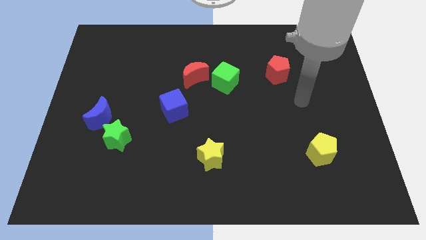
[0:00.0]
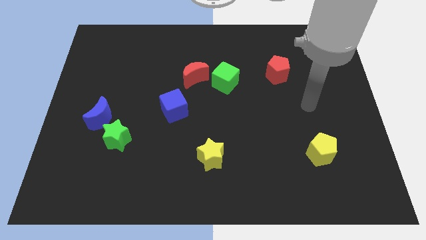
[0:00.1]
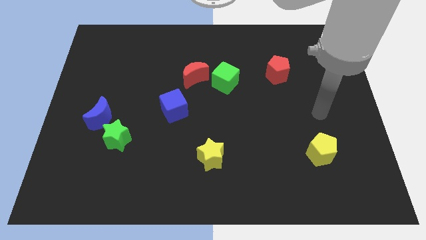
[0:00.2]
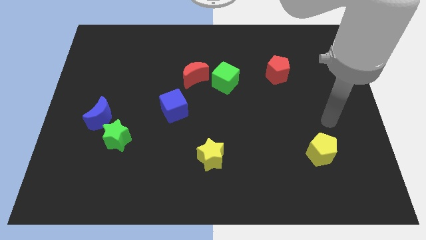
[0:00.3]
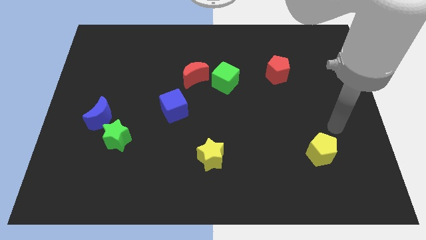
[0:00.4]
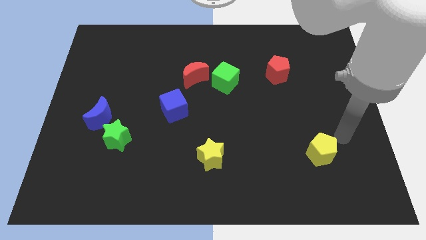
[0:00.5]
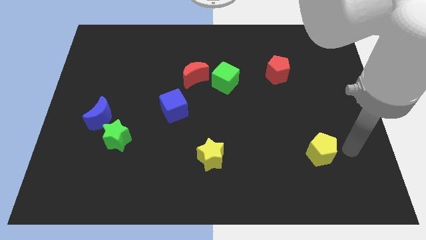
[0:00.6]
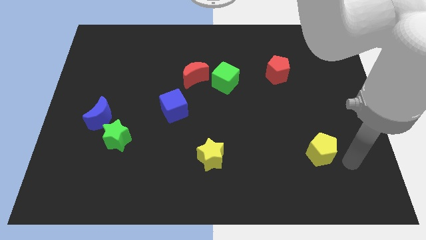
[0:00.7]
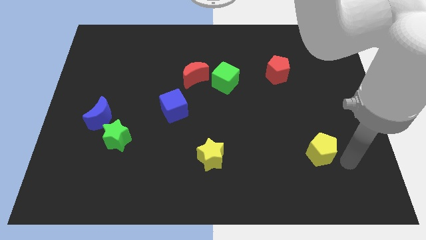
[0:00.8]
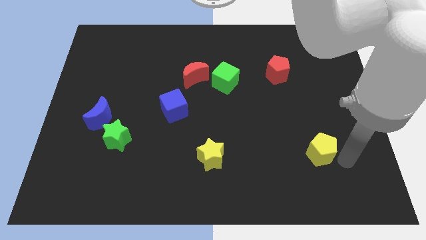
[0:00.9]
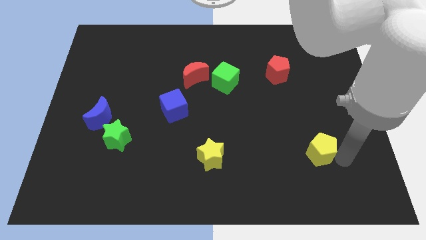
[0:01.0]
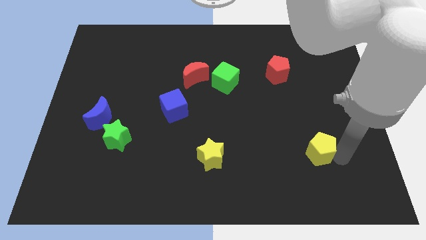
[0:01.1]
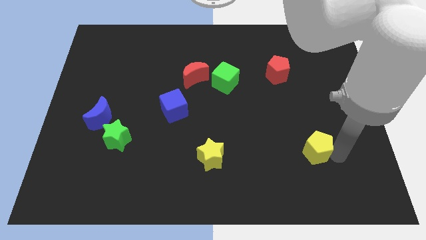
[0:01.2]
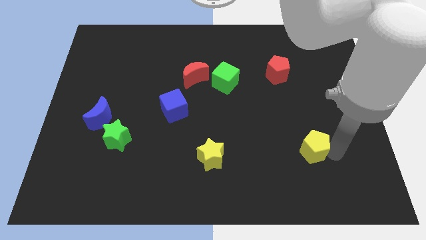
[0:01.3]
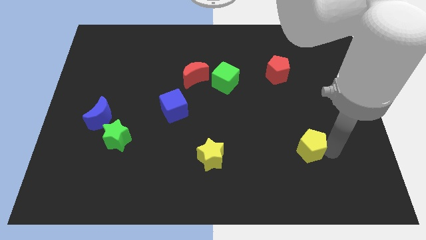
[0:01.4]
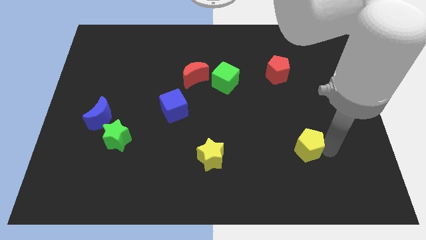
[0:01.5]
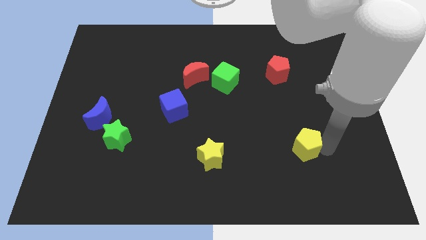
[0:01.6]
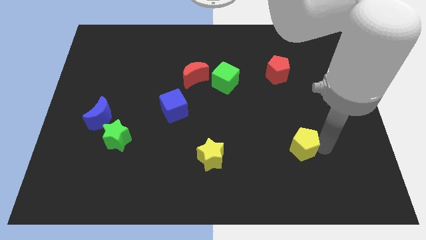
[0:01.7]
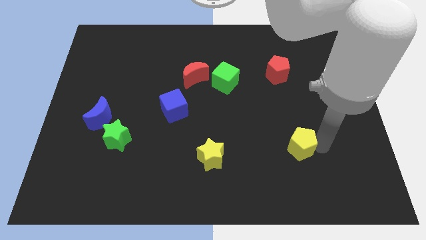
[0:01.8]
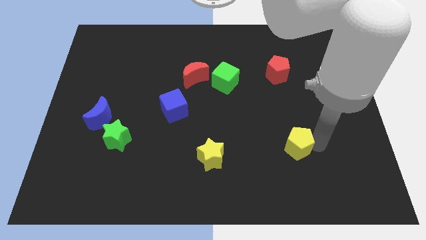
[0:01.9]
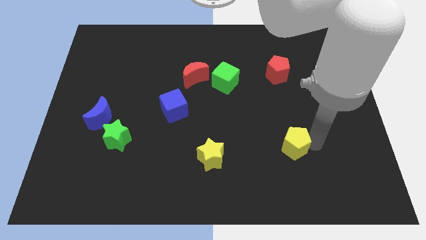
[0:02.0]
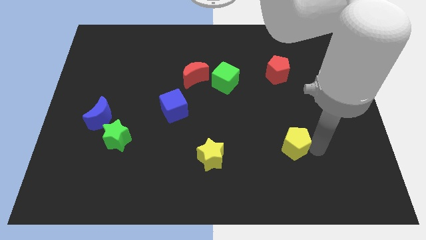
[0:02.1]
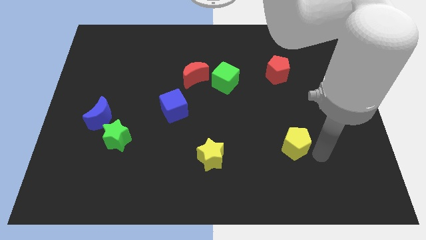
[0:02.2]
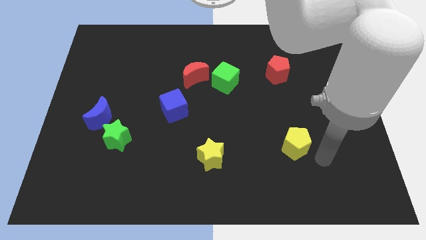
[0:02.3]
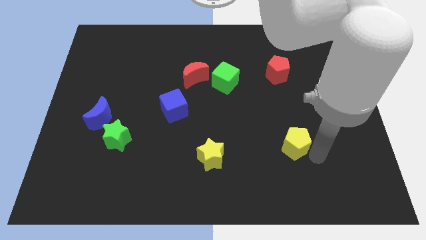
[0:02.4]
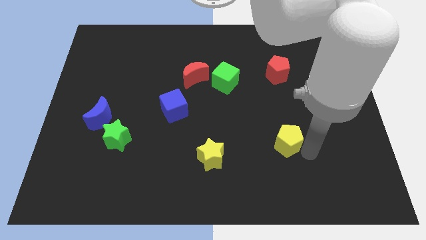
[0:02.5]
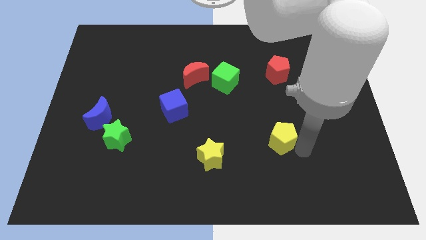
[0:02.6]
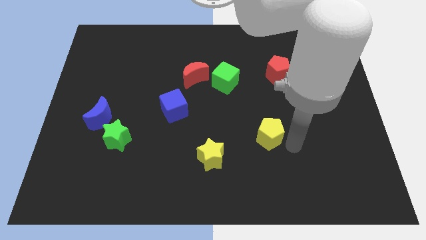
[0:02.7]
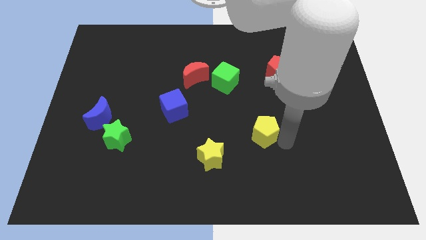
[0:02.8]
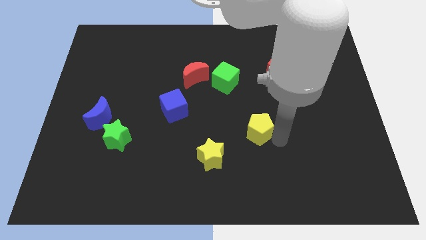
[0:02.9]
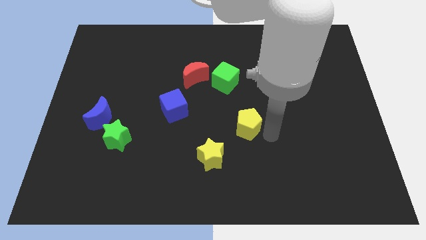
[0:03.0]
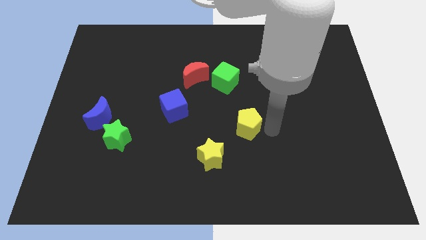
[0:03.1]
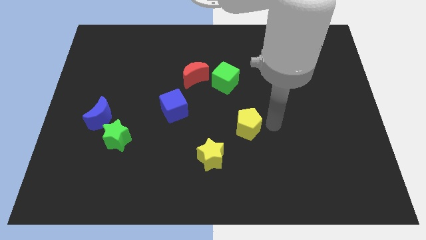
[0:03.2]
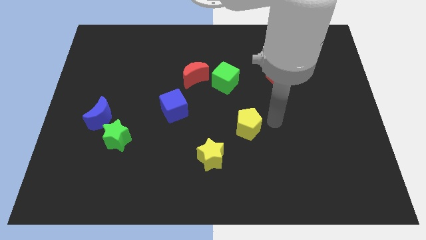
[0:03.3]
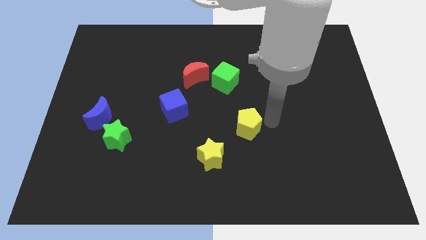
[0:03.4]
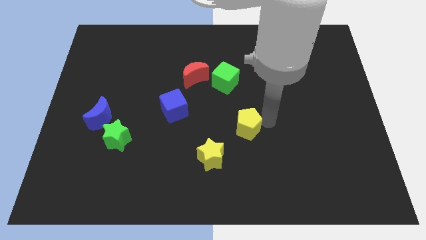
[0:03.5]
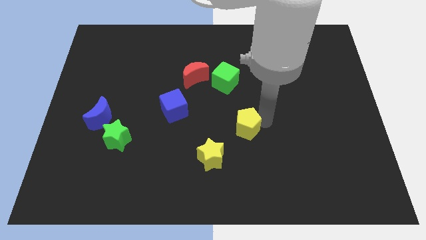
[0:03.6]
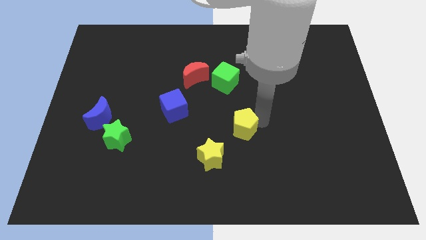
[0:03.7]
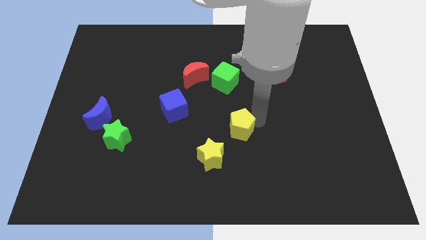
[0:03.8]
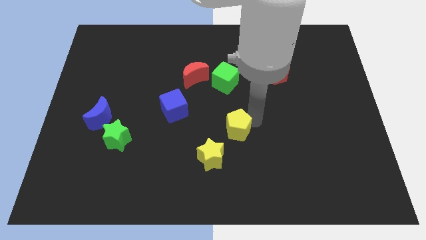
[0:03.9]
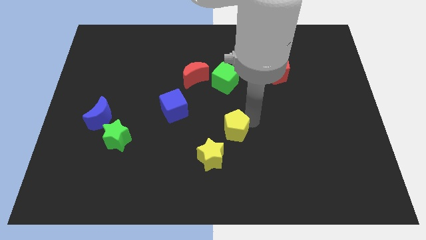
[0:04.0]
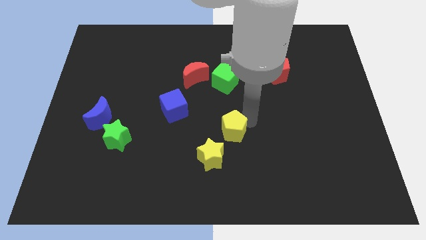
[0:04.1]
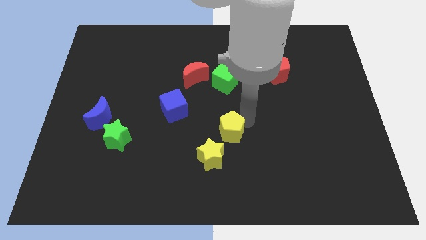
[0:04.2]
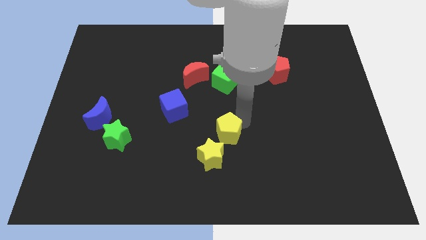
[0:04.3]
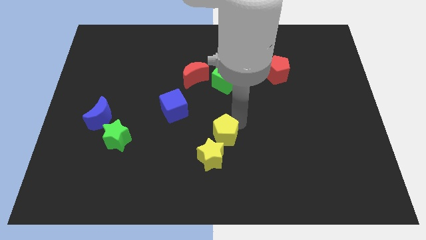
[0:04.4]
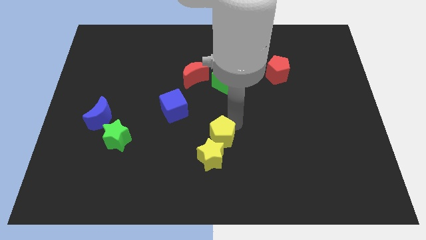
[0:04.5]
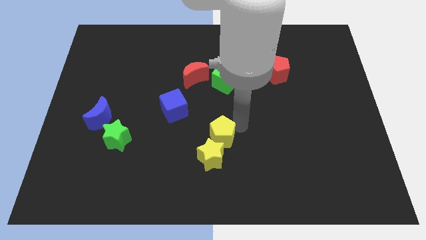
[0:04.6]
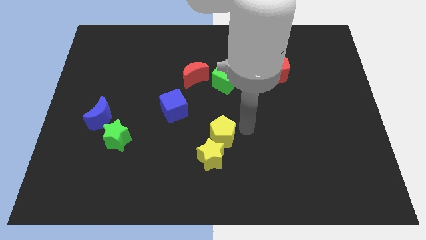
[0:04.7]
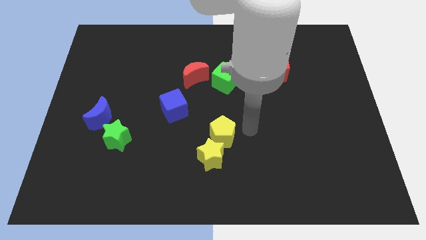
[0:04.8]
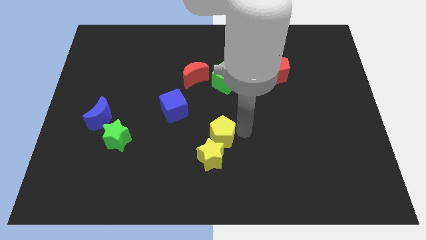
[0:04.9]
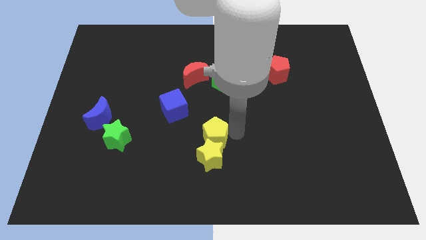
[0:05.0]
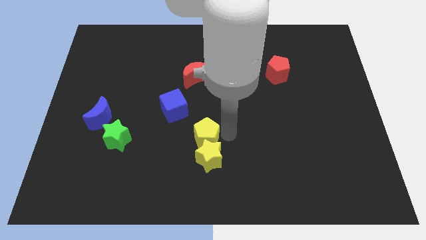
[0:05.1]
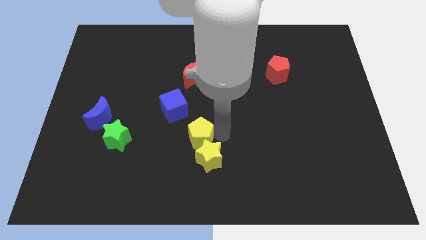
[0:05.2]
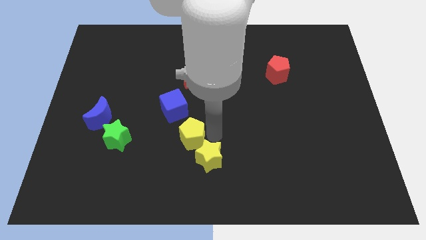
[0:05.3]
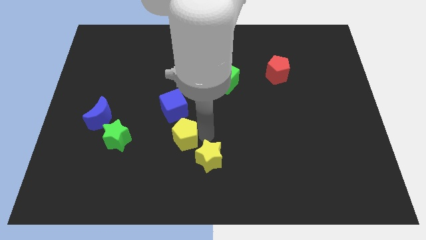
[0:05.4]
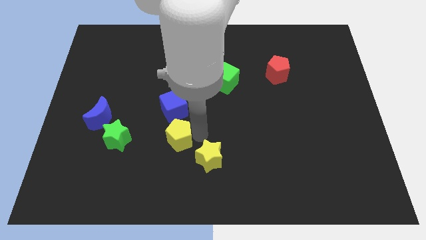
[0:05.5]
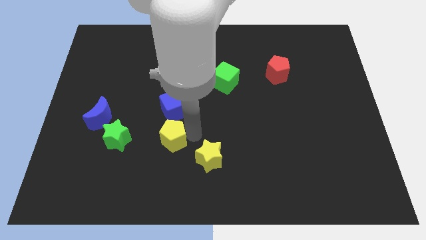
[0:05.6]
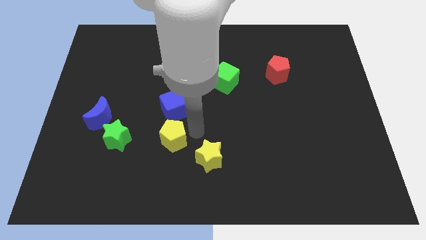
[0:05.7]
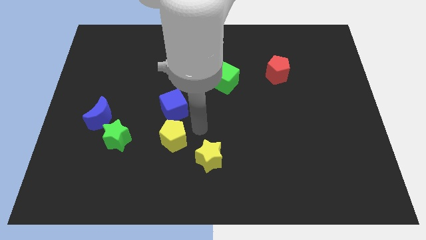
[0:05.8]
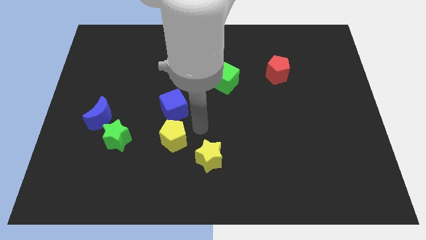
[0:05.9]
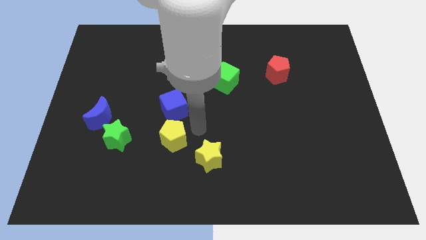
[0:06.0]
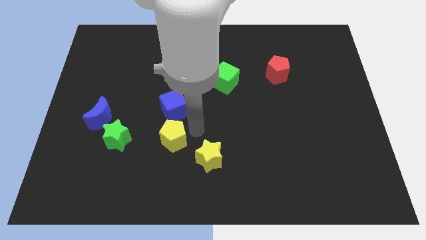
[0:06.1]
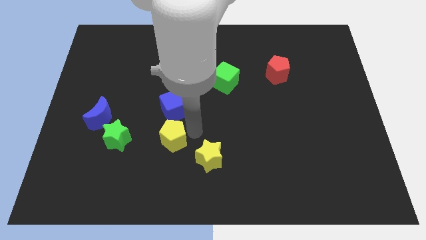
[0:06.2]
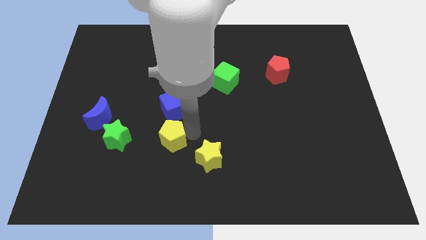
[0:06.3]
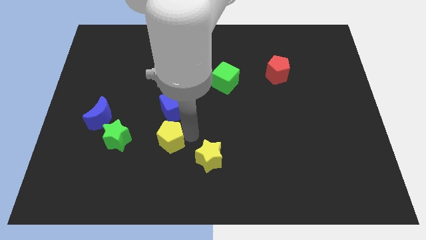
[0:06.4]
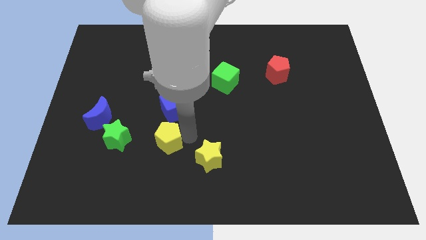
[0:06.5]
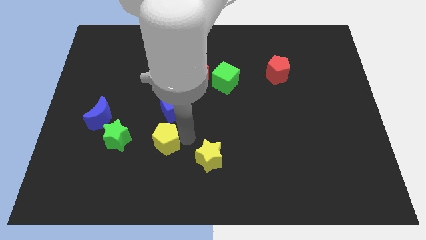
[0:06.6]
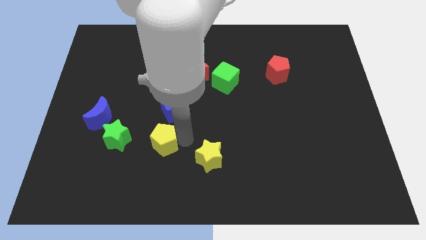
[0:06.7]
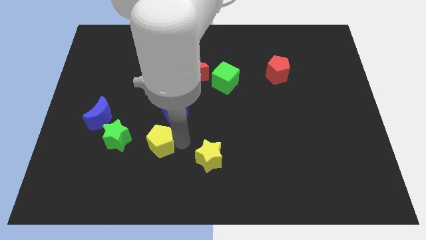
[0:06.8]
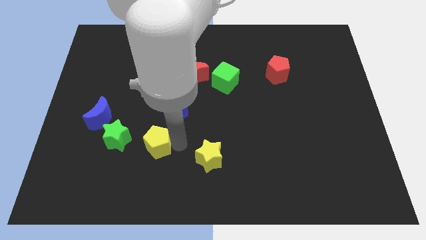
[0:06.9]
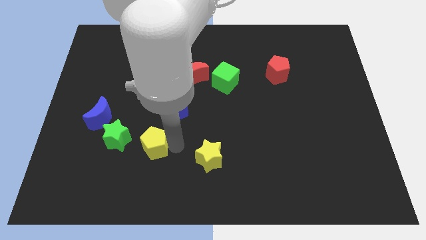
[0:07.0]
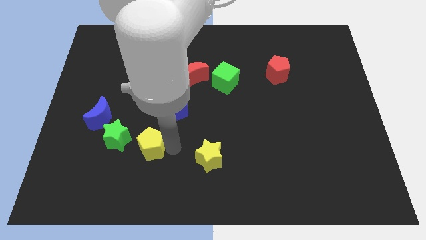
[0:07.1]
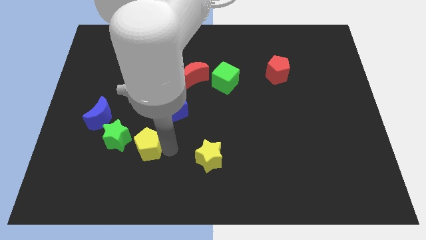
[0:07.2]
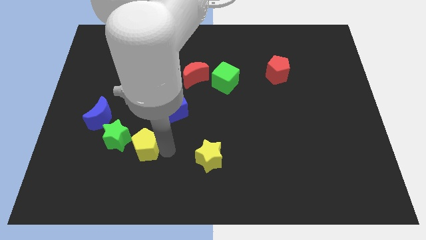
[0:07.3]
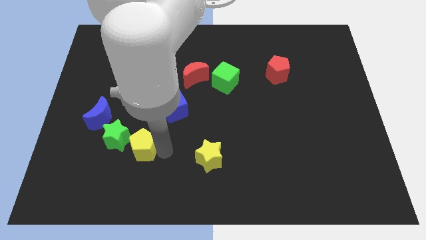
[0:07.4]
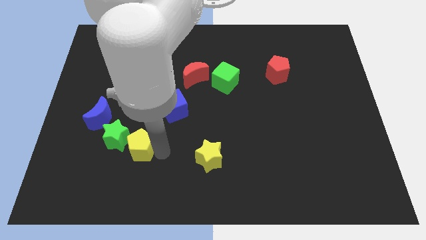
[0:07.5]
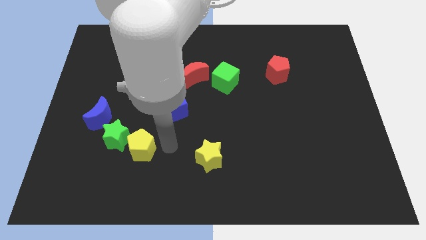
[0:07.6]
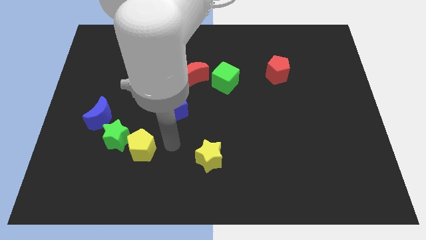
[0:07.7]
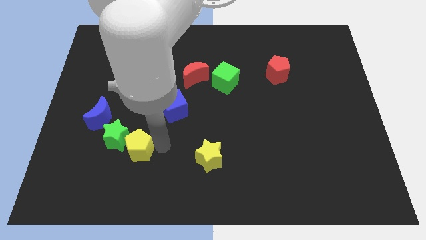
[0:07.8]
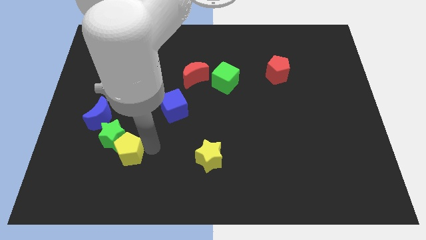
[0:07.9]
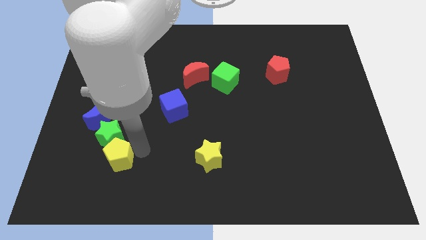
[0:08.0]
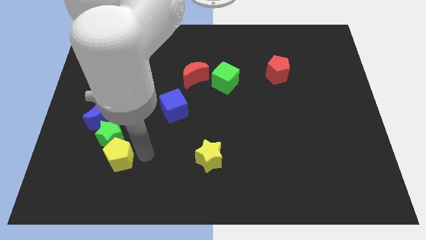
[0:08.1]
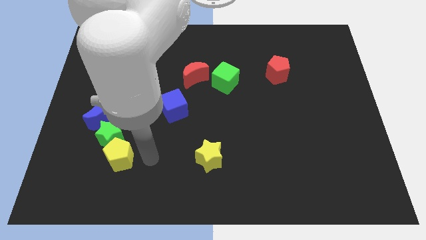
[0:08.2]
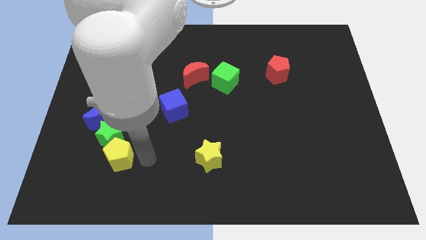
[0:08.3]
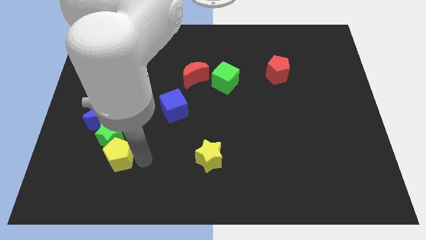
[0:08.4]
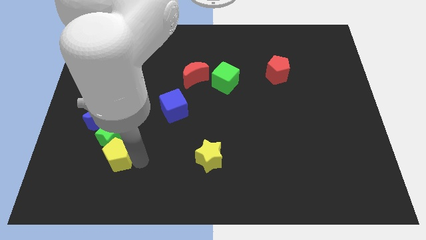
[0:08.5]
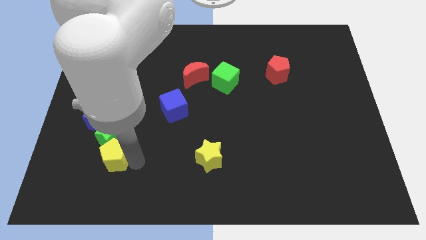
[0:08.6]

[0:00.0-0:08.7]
move the yellow pentagon to the bottom side of the blue moon
